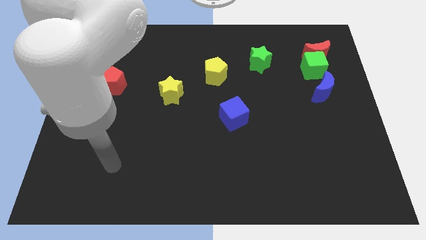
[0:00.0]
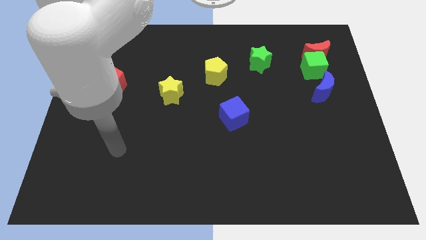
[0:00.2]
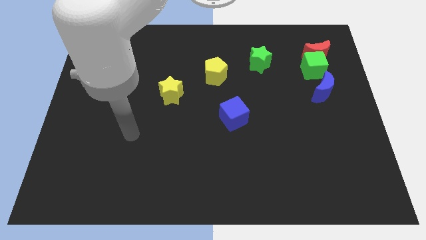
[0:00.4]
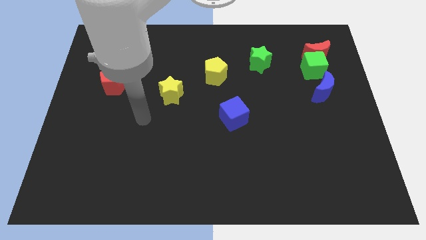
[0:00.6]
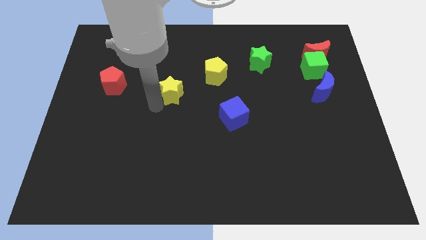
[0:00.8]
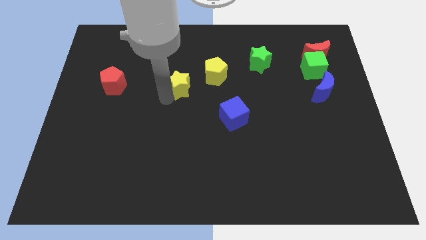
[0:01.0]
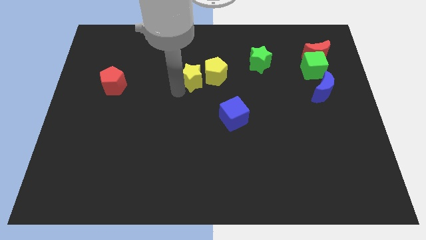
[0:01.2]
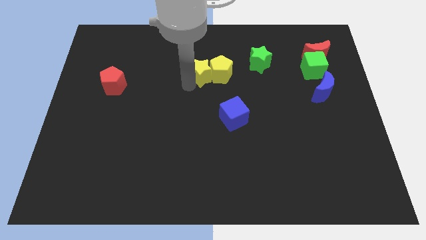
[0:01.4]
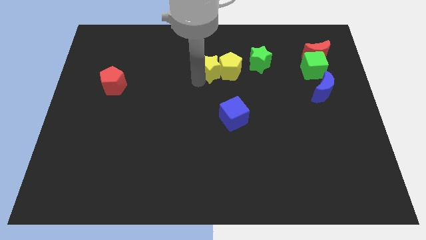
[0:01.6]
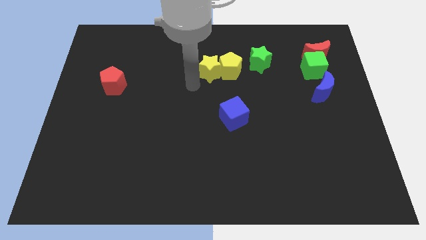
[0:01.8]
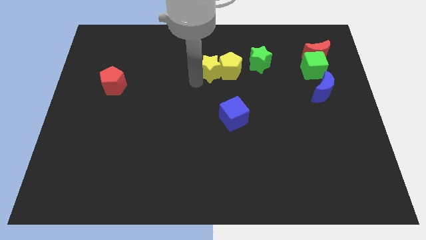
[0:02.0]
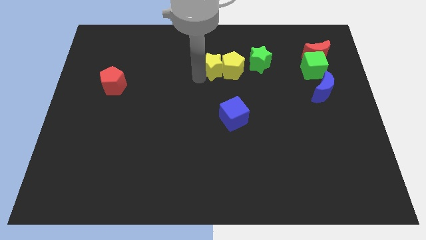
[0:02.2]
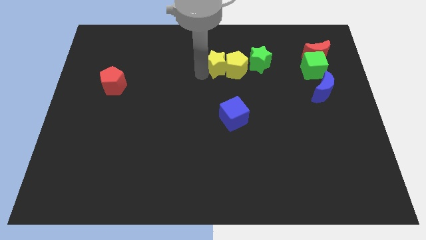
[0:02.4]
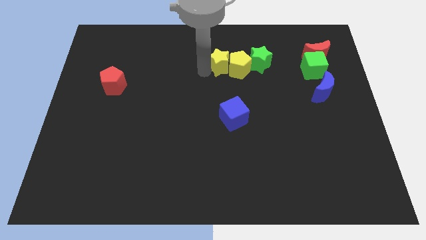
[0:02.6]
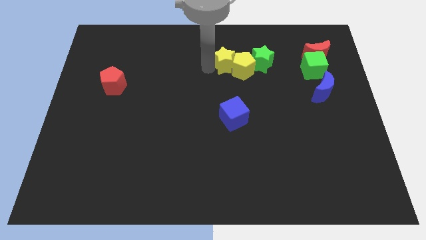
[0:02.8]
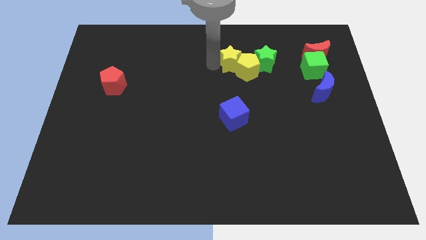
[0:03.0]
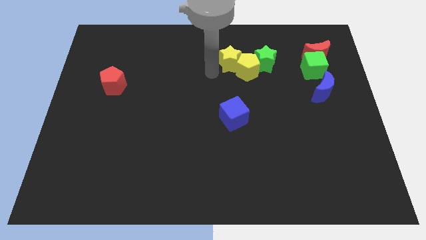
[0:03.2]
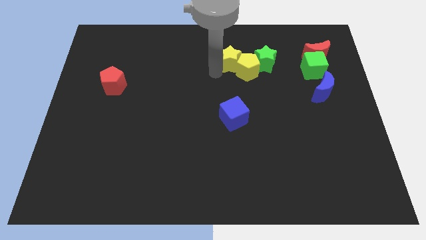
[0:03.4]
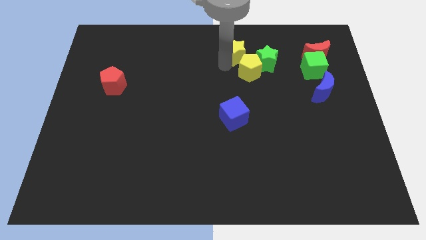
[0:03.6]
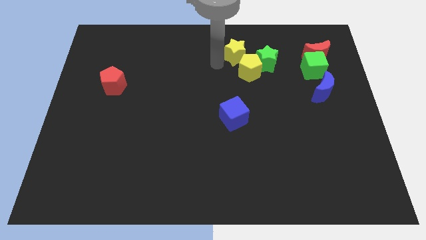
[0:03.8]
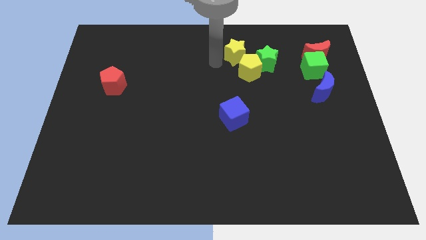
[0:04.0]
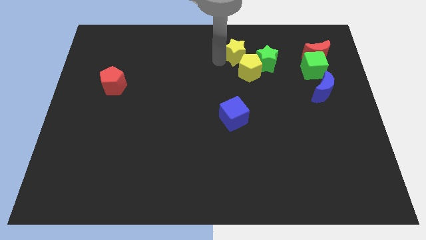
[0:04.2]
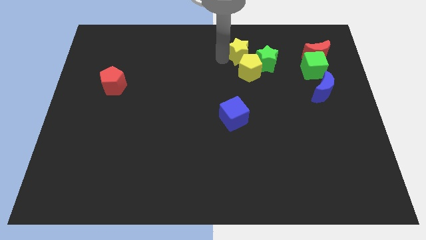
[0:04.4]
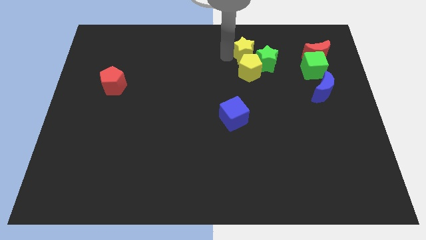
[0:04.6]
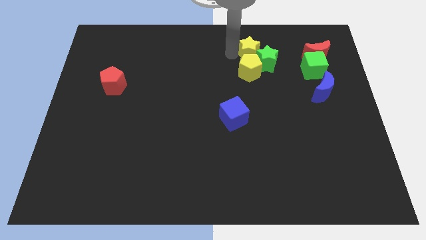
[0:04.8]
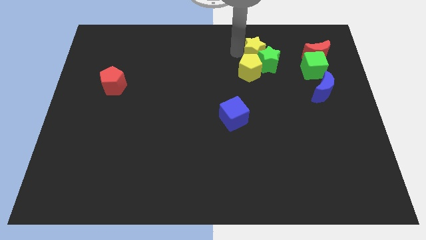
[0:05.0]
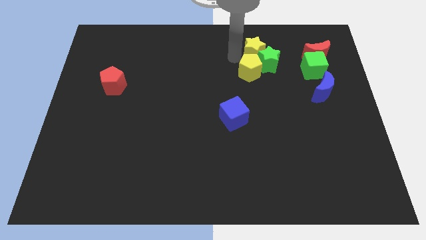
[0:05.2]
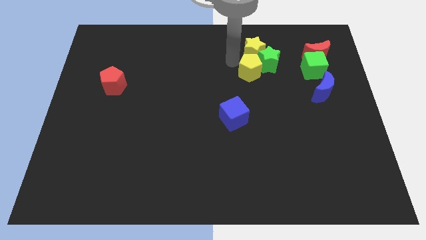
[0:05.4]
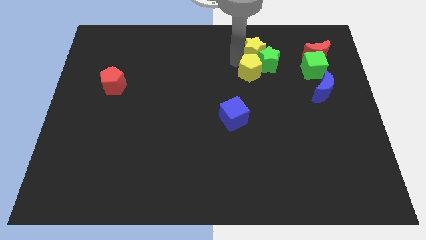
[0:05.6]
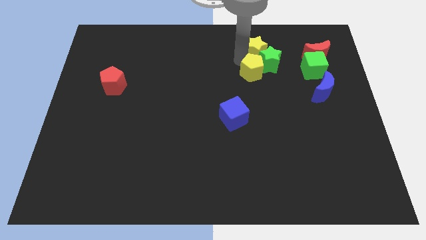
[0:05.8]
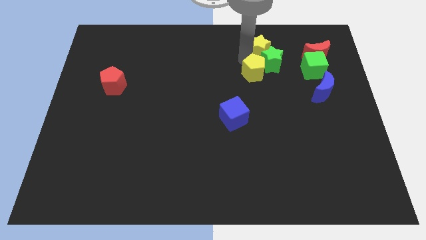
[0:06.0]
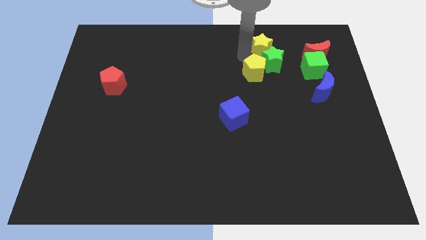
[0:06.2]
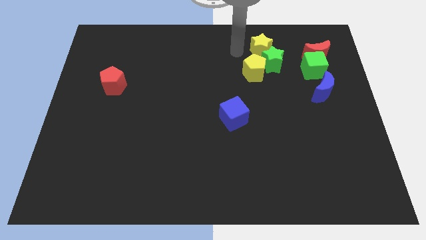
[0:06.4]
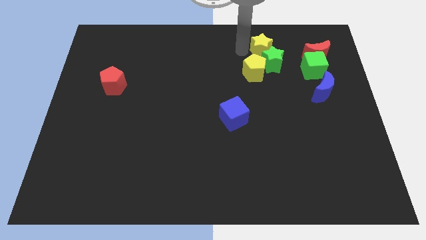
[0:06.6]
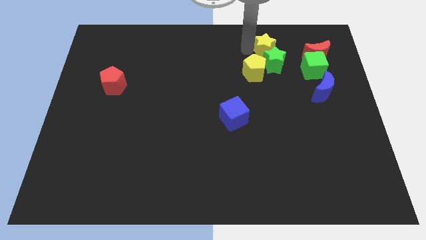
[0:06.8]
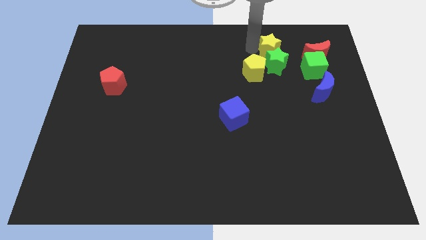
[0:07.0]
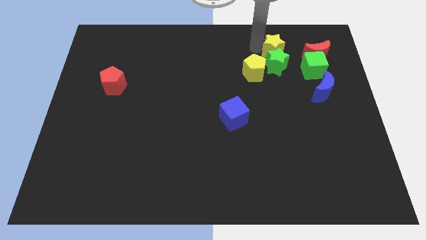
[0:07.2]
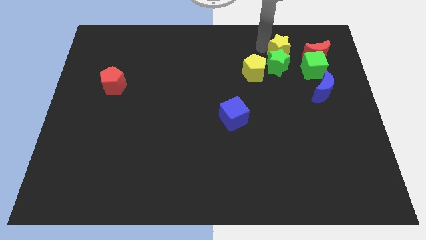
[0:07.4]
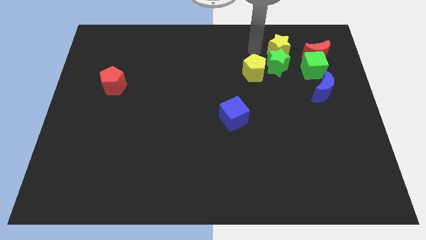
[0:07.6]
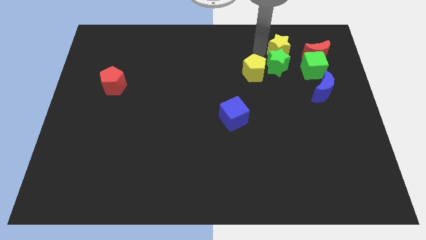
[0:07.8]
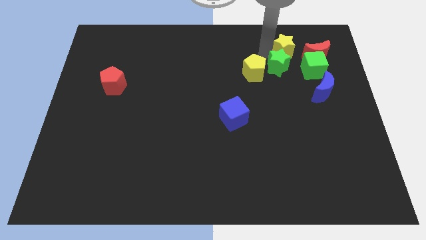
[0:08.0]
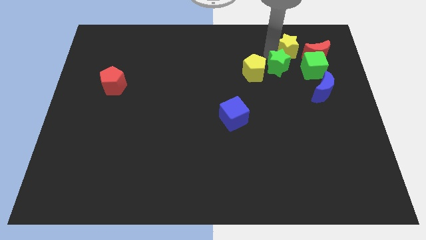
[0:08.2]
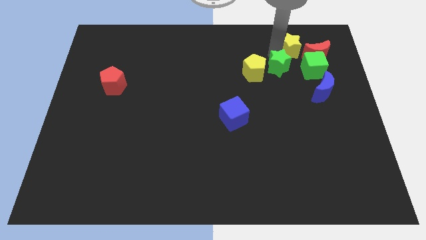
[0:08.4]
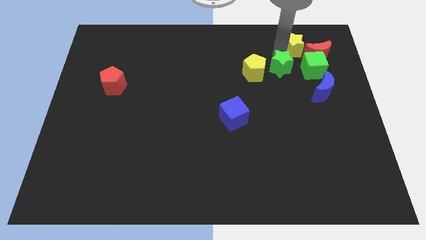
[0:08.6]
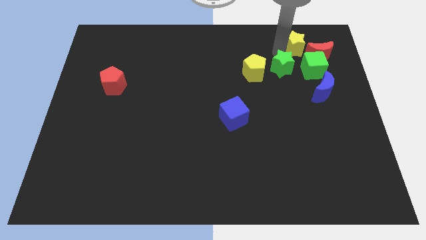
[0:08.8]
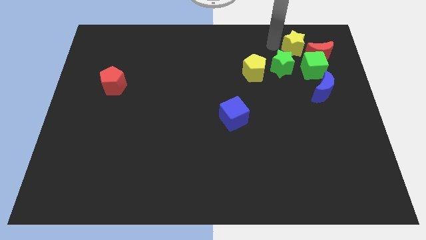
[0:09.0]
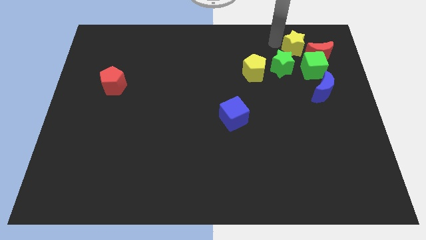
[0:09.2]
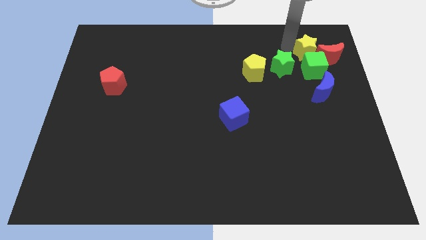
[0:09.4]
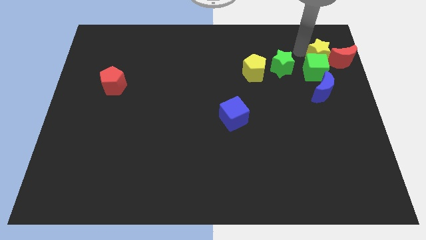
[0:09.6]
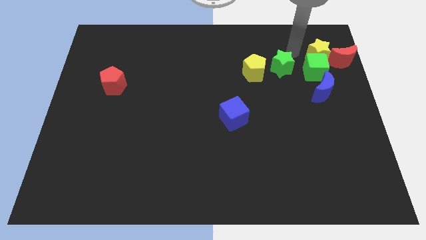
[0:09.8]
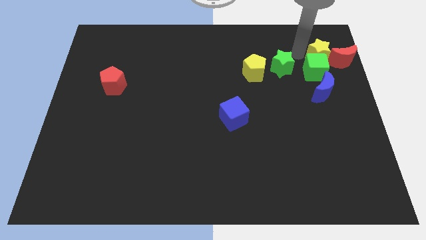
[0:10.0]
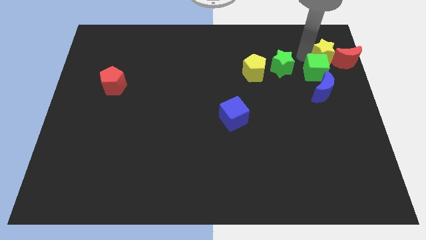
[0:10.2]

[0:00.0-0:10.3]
push the yellow star to the red moon

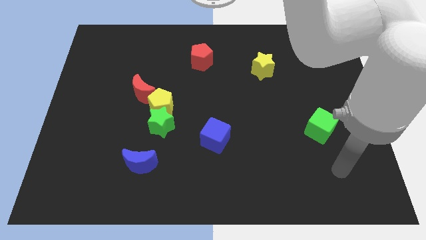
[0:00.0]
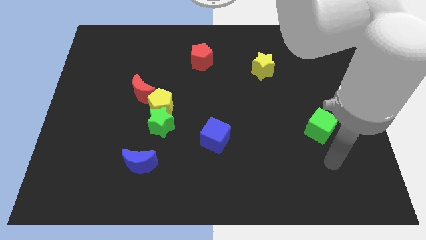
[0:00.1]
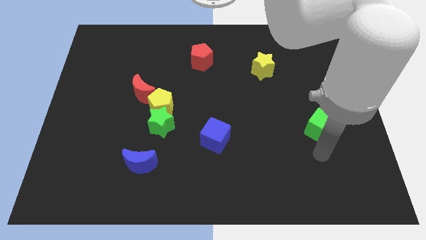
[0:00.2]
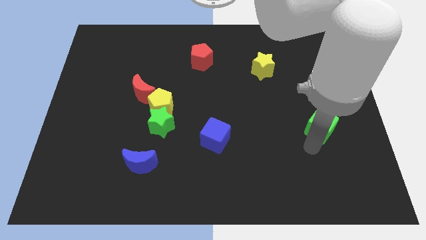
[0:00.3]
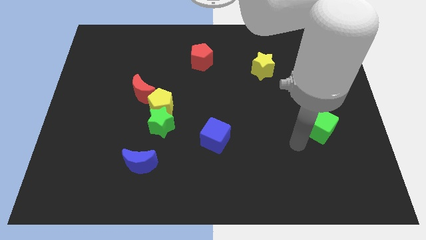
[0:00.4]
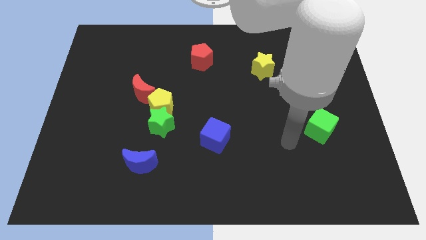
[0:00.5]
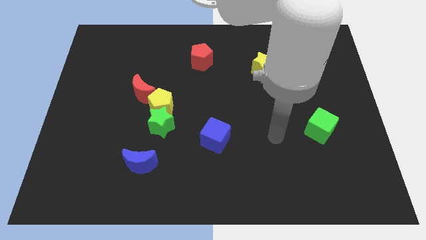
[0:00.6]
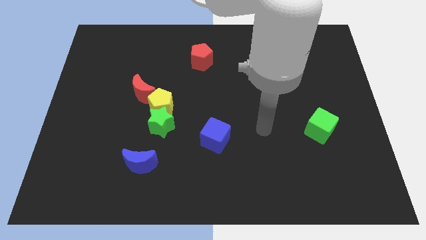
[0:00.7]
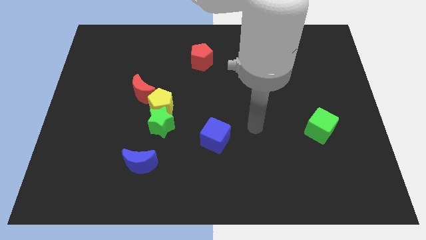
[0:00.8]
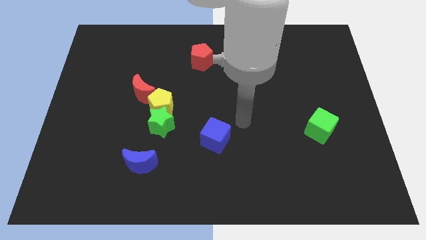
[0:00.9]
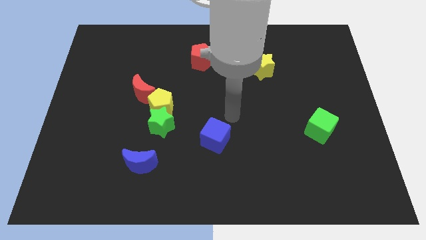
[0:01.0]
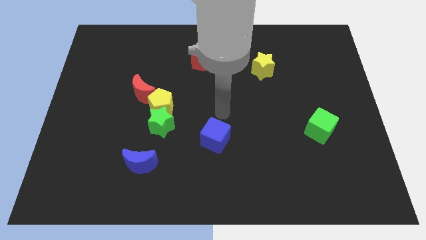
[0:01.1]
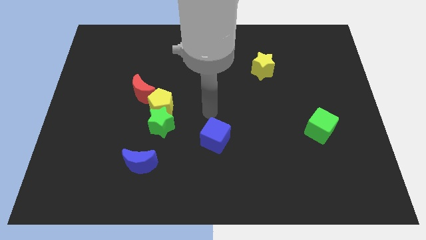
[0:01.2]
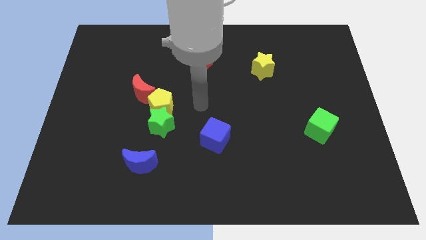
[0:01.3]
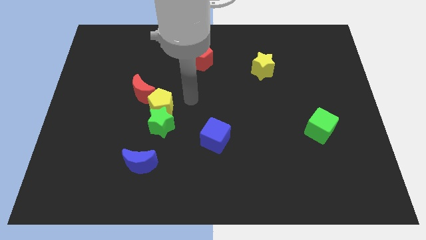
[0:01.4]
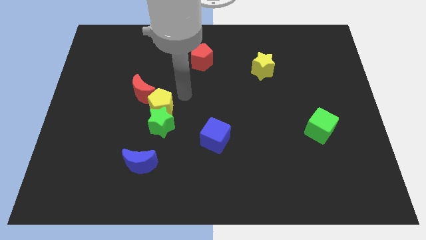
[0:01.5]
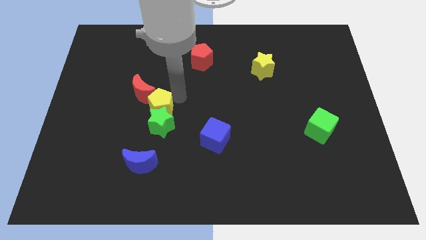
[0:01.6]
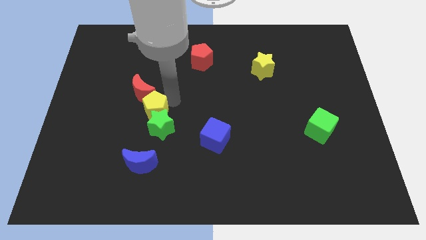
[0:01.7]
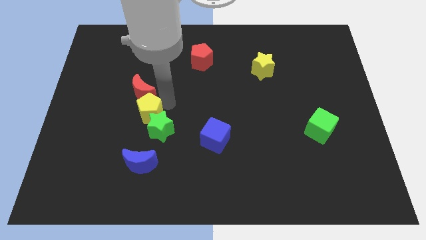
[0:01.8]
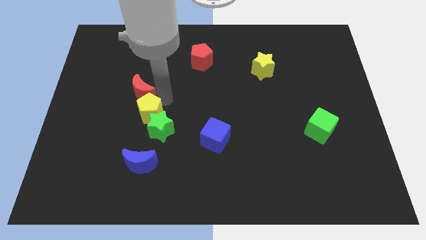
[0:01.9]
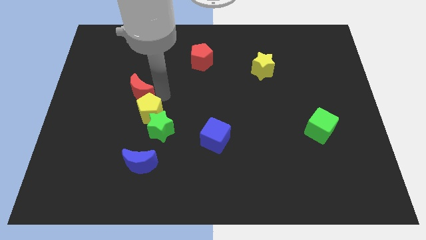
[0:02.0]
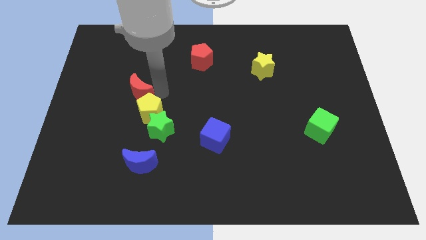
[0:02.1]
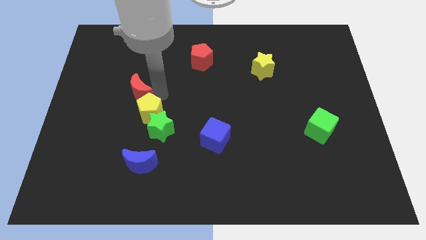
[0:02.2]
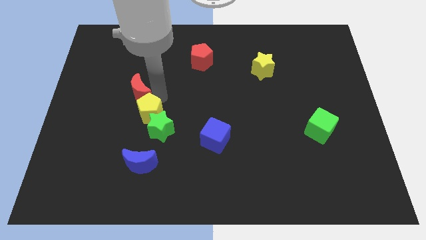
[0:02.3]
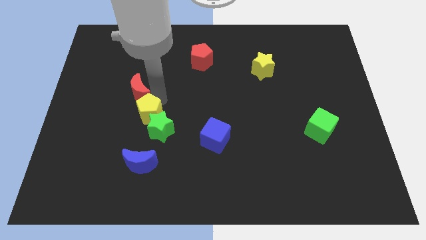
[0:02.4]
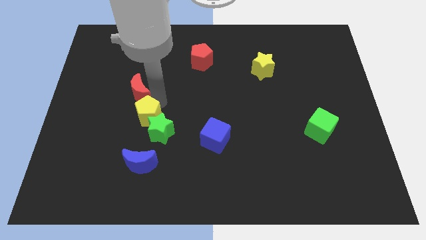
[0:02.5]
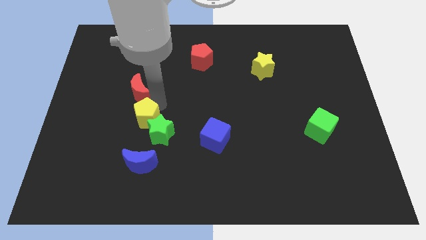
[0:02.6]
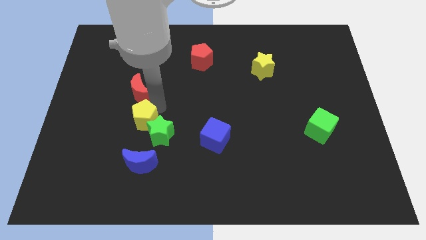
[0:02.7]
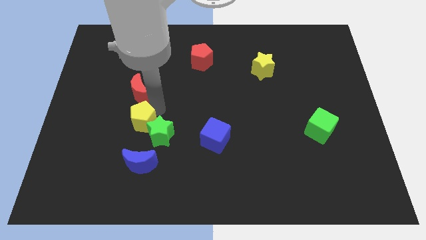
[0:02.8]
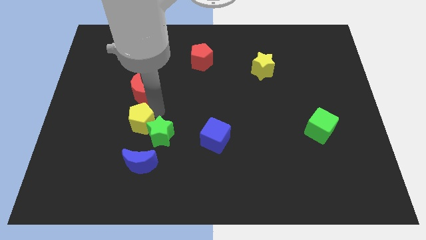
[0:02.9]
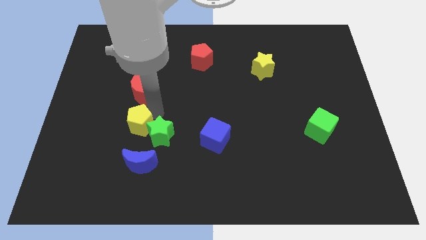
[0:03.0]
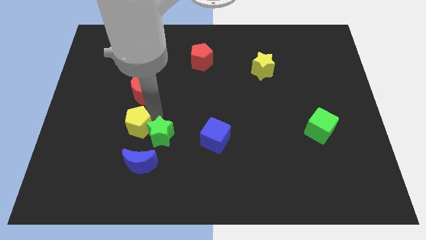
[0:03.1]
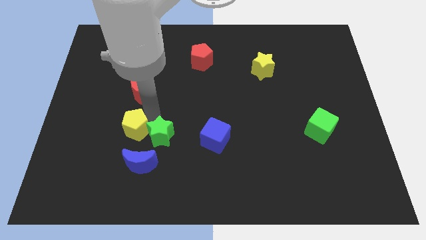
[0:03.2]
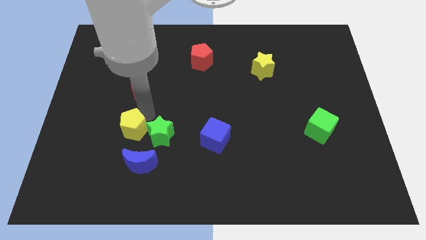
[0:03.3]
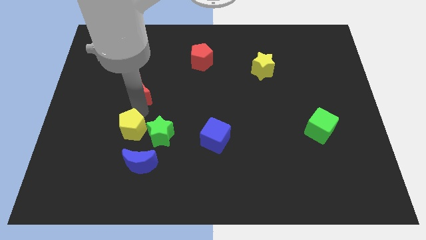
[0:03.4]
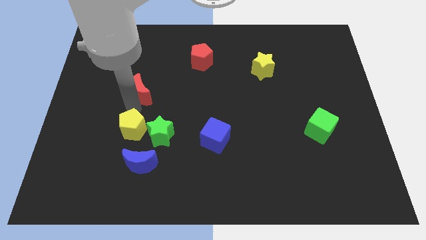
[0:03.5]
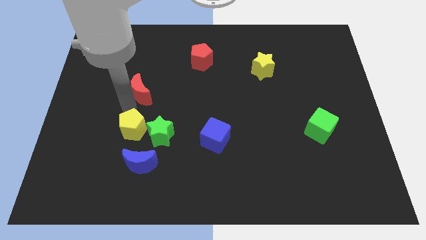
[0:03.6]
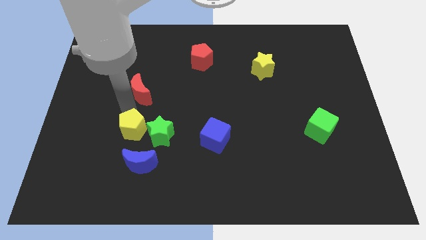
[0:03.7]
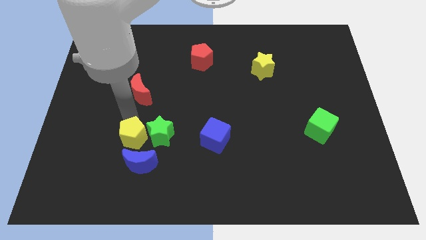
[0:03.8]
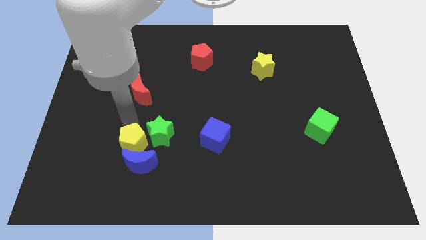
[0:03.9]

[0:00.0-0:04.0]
put the yellow pentagon next to the blue moon
